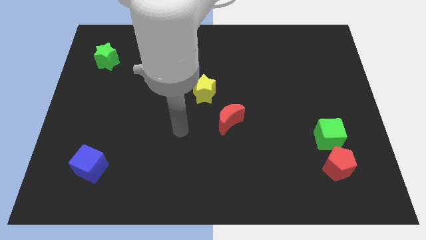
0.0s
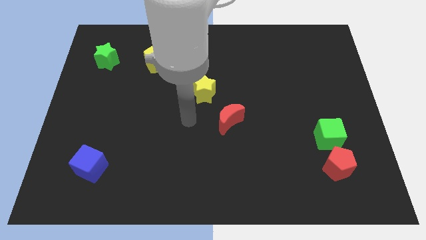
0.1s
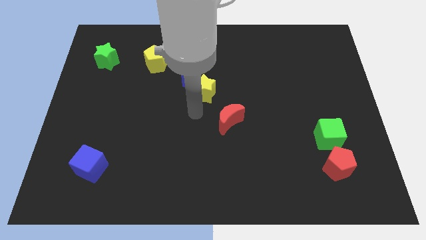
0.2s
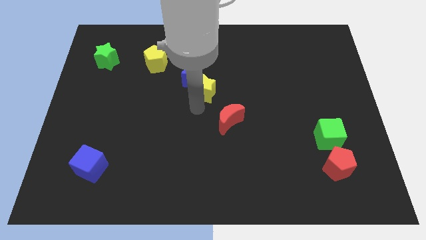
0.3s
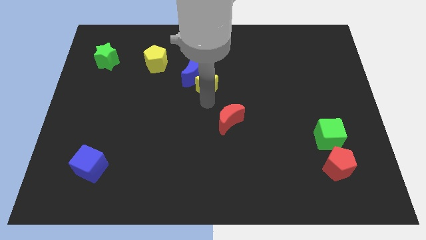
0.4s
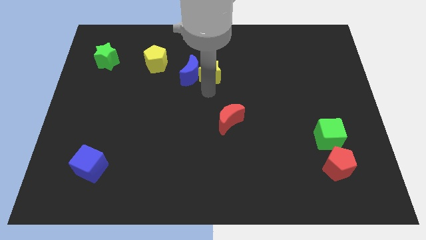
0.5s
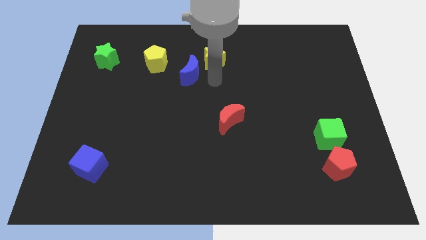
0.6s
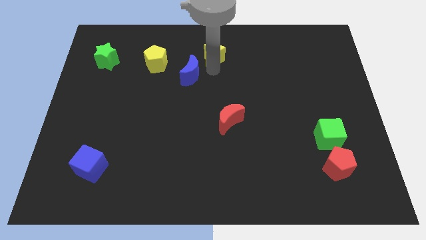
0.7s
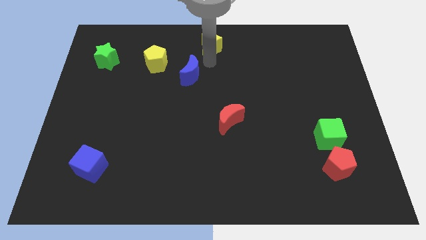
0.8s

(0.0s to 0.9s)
pull the blue moon apart from the yellow star

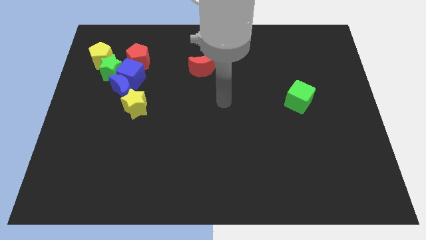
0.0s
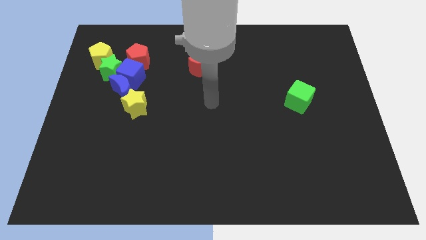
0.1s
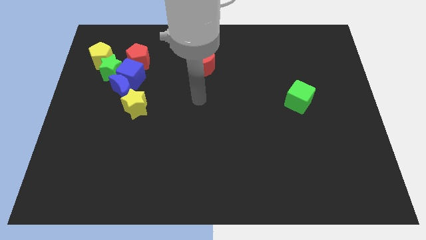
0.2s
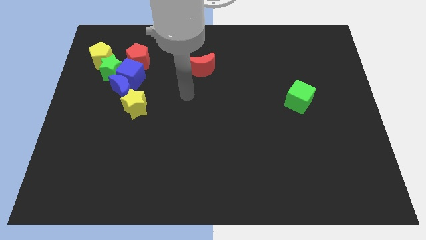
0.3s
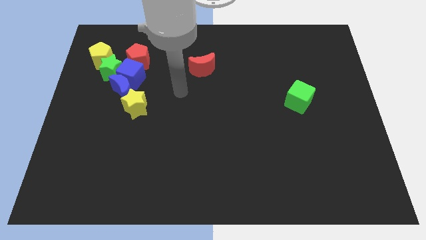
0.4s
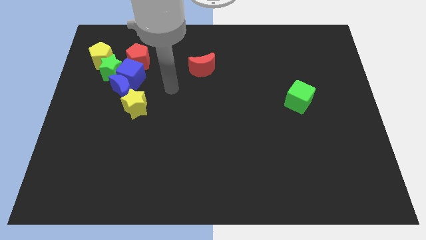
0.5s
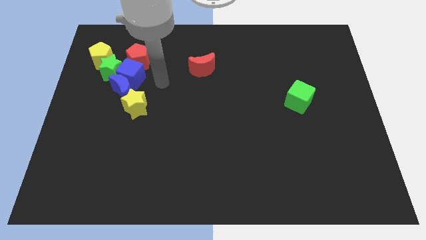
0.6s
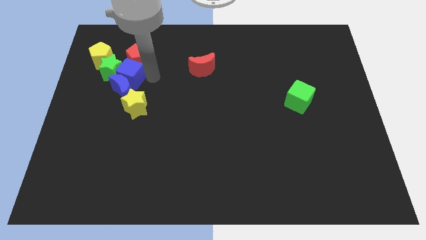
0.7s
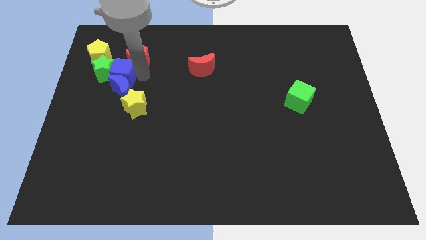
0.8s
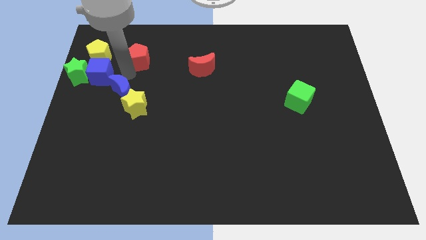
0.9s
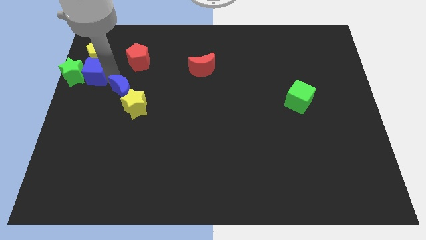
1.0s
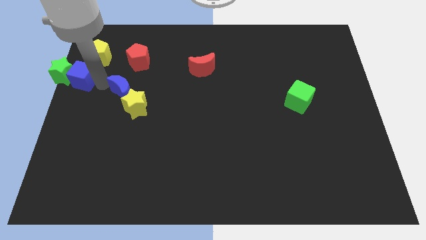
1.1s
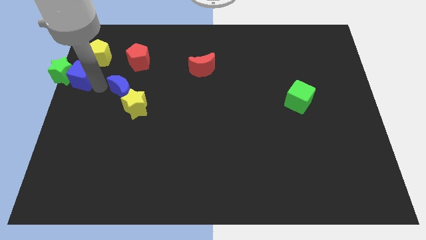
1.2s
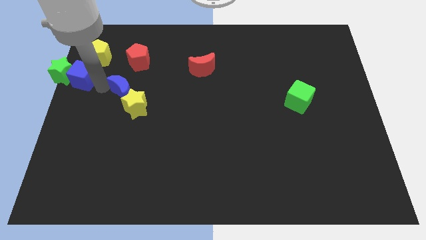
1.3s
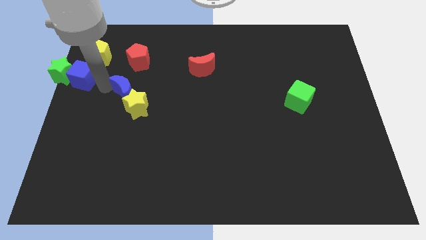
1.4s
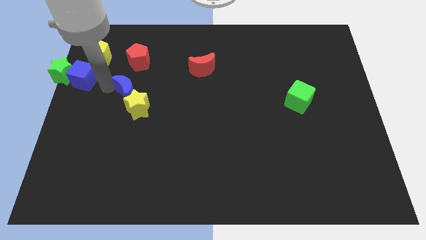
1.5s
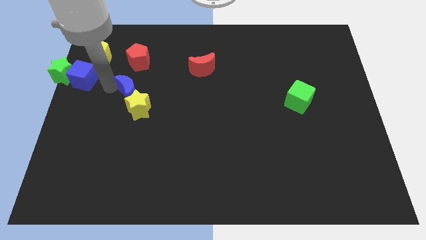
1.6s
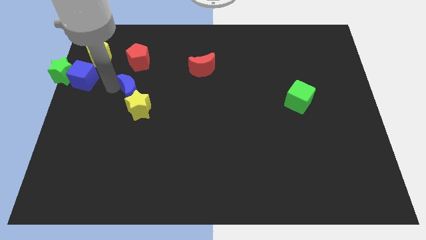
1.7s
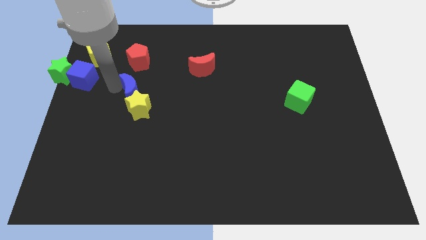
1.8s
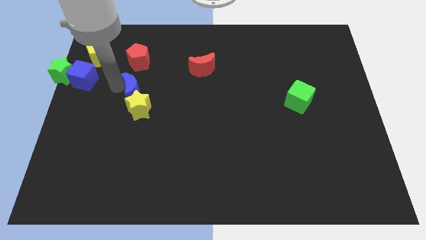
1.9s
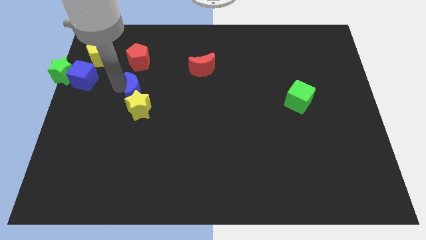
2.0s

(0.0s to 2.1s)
pull the blue moon apart from the blue cube, yellow star, and green star

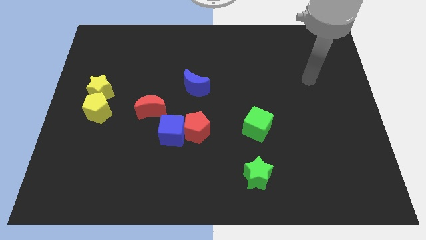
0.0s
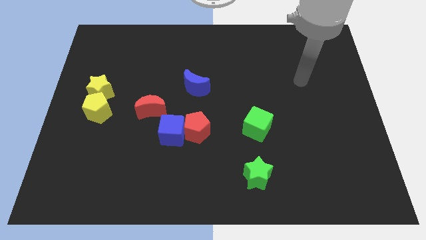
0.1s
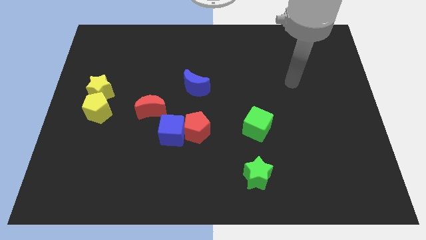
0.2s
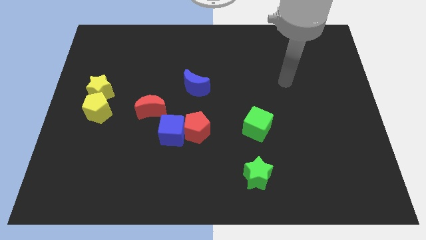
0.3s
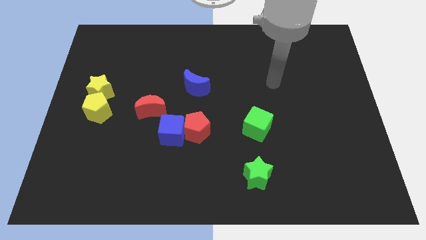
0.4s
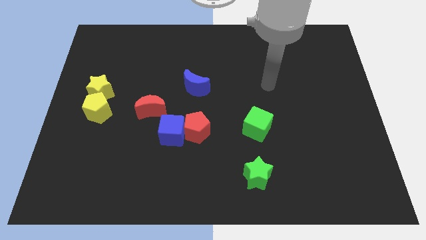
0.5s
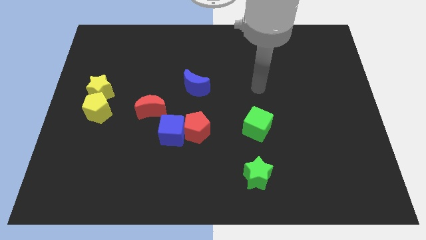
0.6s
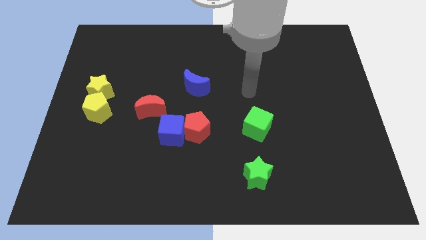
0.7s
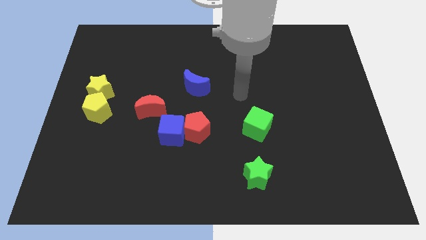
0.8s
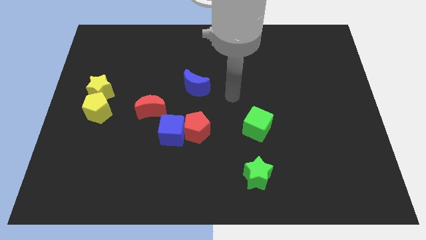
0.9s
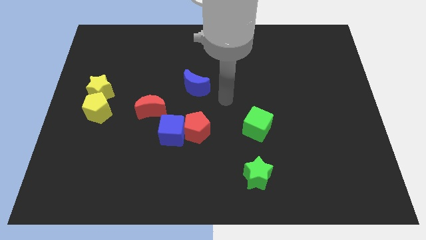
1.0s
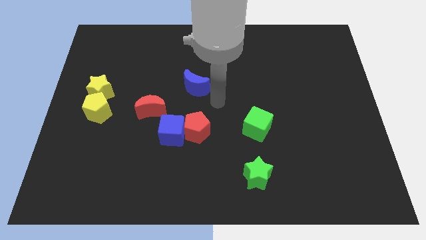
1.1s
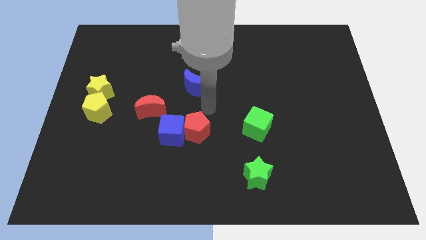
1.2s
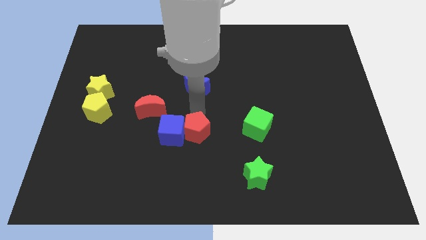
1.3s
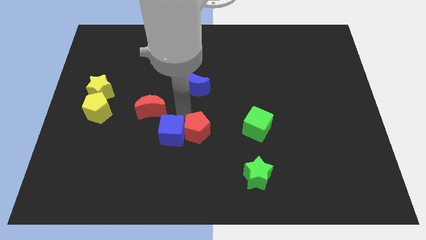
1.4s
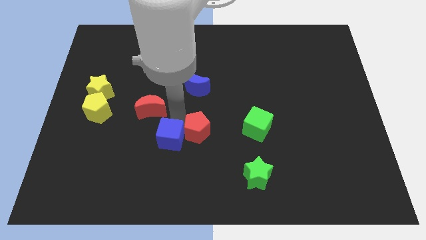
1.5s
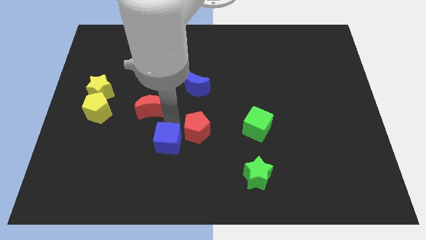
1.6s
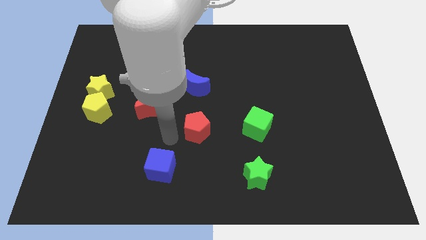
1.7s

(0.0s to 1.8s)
separate the red pentagon from the blue cube

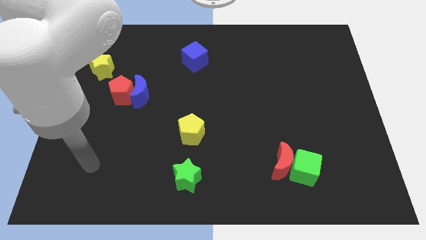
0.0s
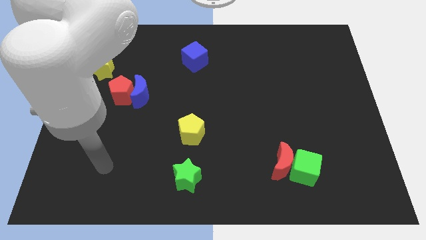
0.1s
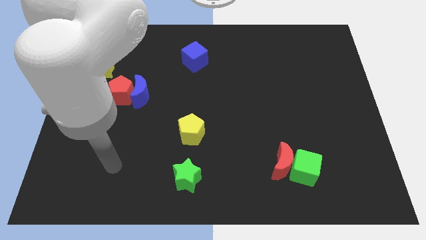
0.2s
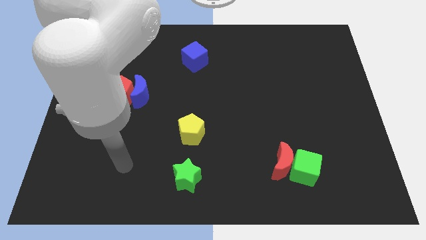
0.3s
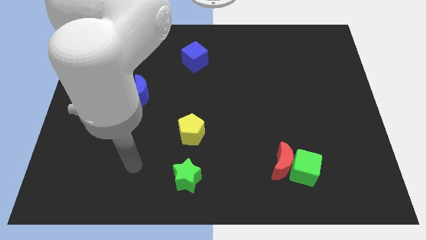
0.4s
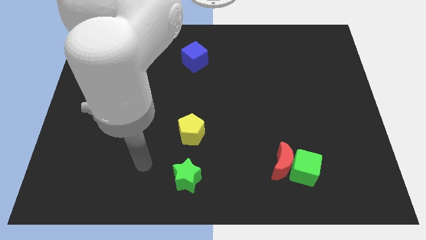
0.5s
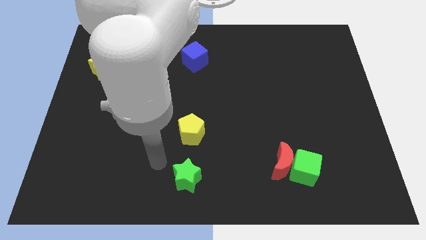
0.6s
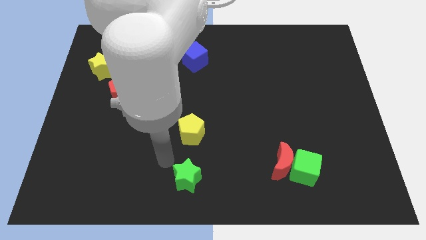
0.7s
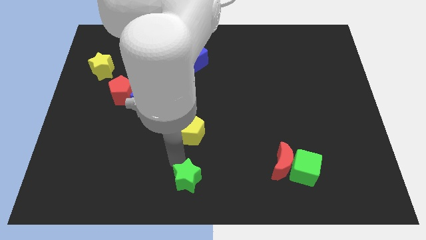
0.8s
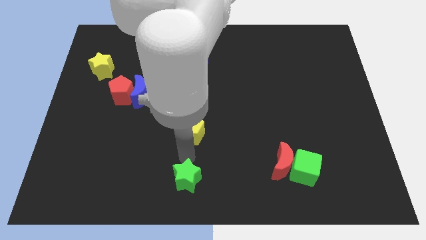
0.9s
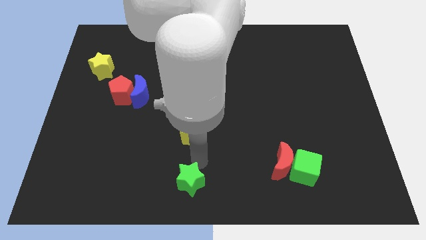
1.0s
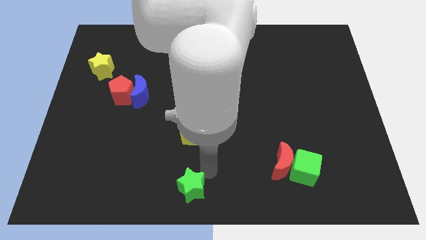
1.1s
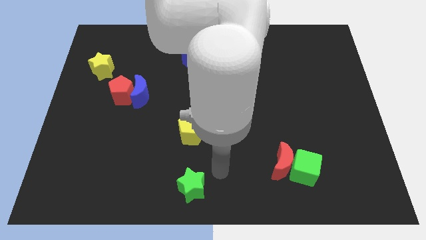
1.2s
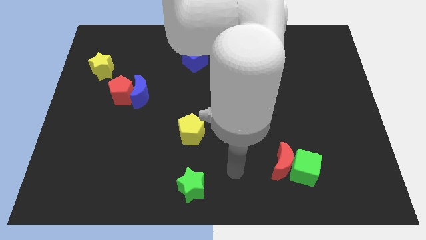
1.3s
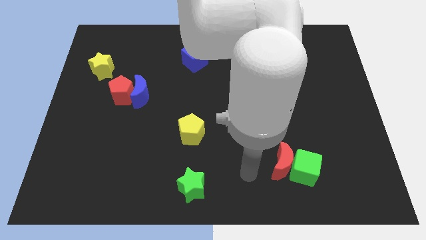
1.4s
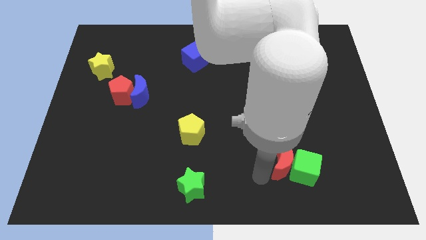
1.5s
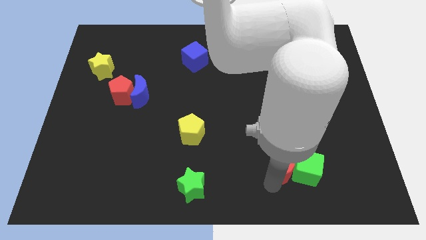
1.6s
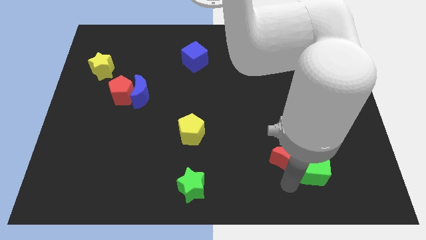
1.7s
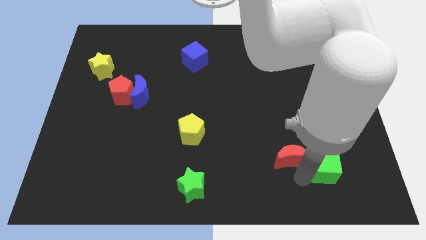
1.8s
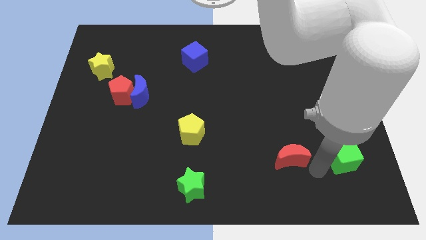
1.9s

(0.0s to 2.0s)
move the red moon away from the green cube

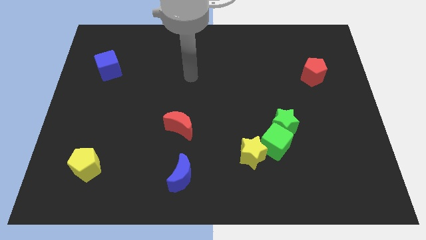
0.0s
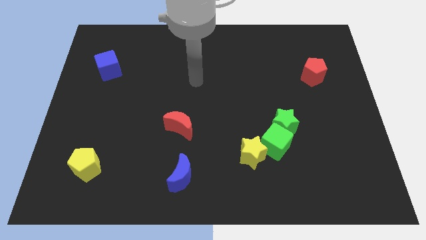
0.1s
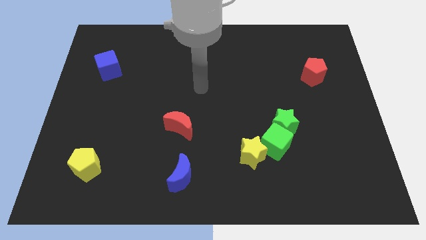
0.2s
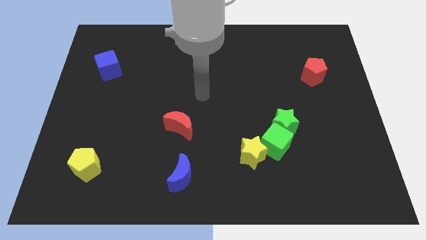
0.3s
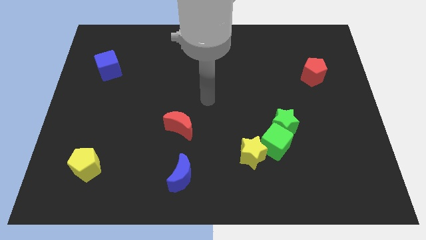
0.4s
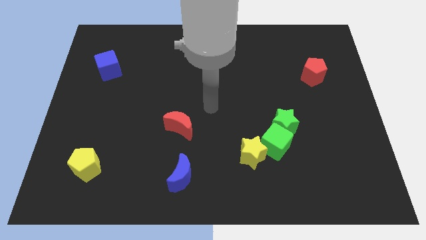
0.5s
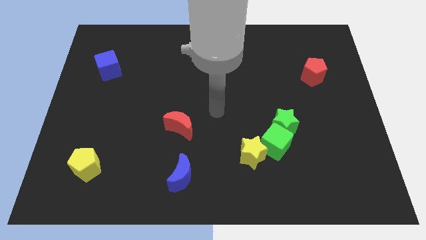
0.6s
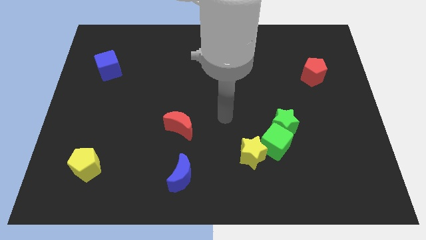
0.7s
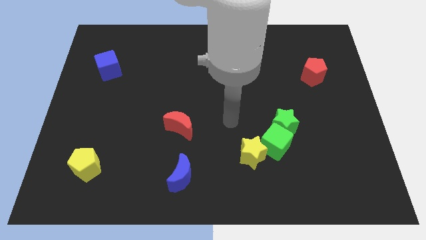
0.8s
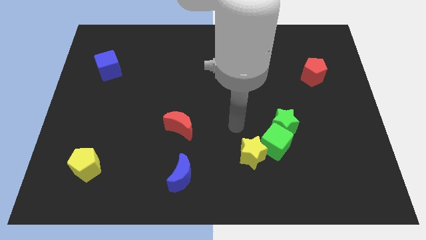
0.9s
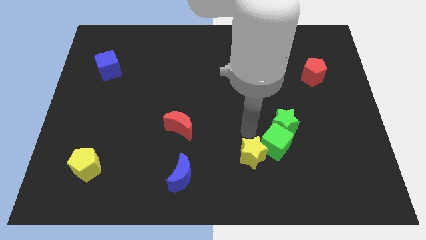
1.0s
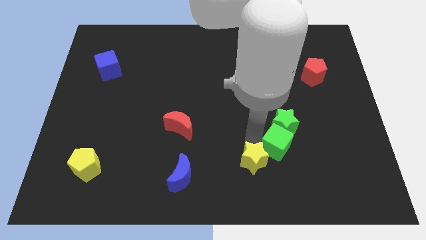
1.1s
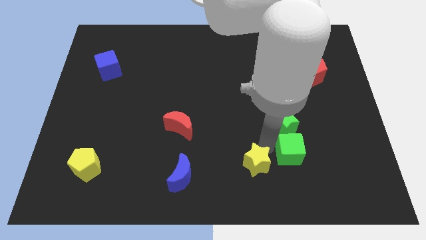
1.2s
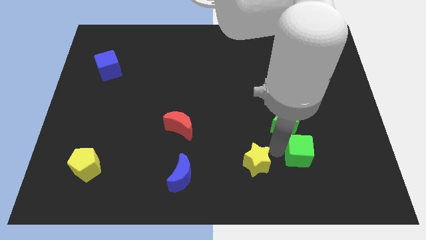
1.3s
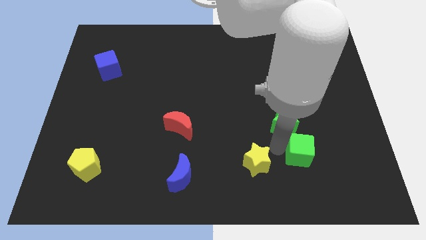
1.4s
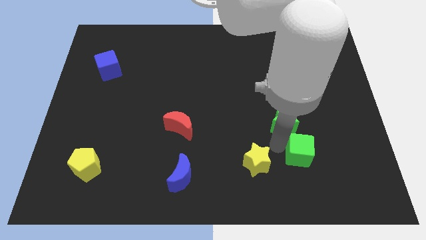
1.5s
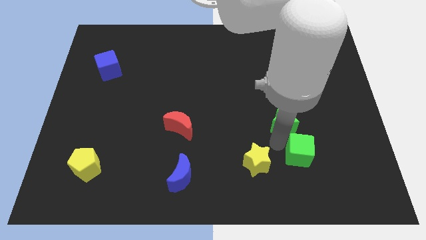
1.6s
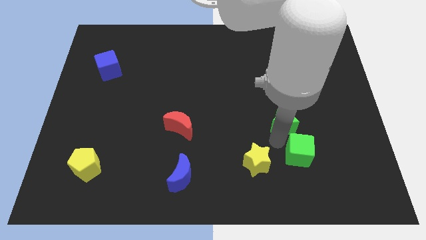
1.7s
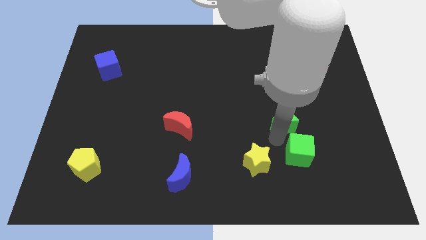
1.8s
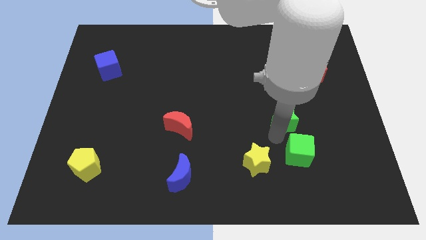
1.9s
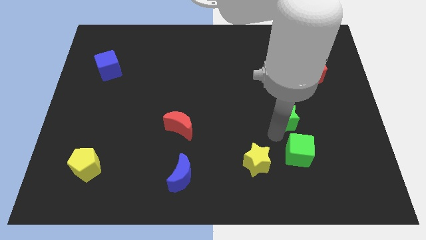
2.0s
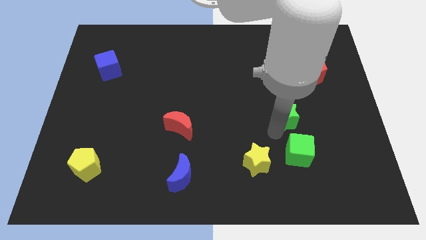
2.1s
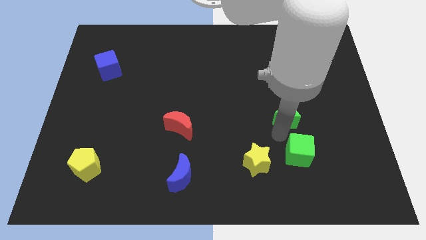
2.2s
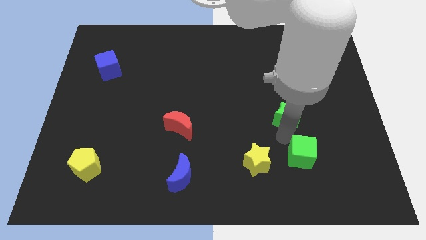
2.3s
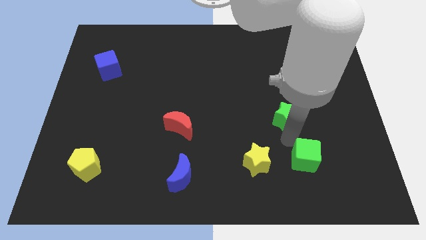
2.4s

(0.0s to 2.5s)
move the green star away from the green cube
